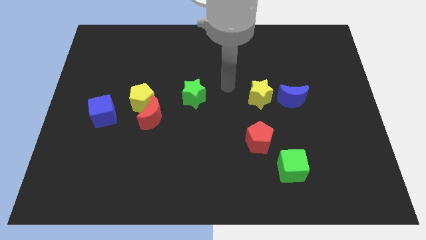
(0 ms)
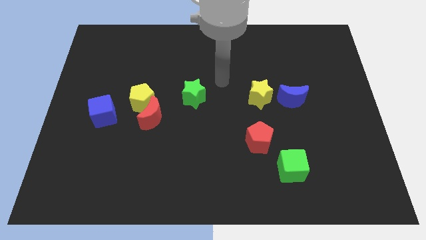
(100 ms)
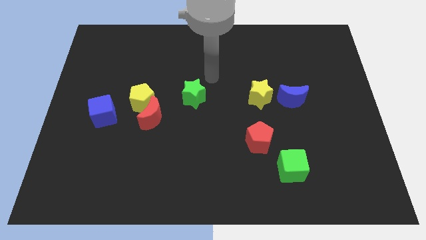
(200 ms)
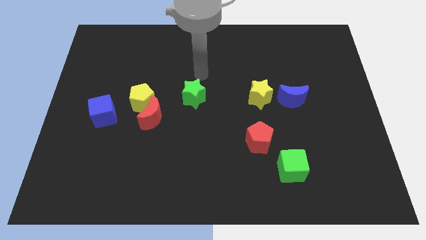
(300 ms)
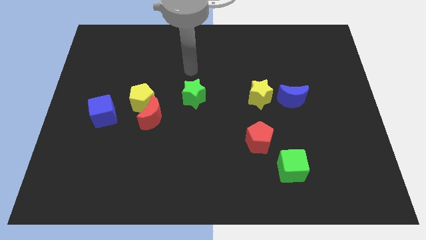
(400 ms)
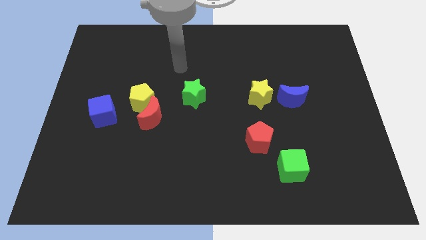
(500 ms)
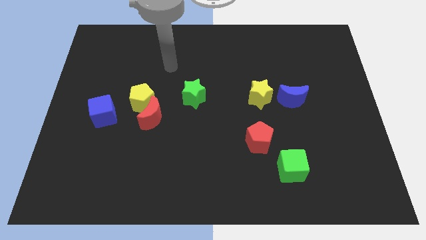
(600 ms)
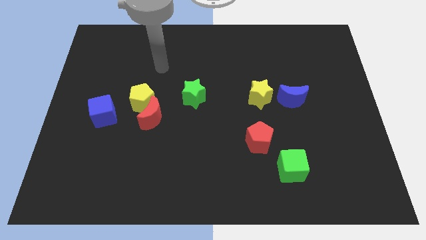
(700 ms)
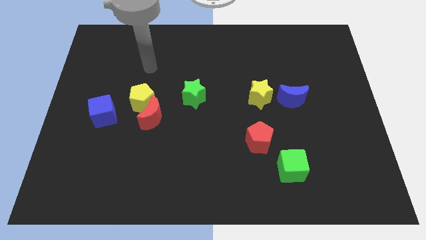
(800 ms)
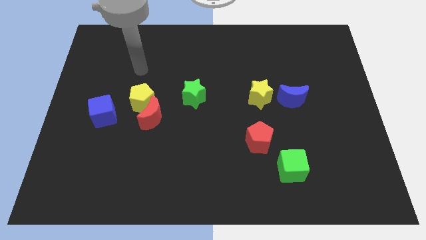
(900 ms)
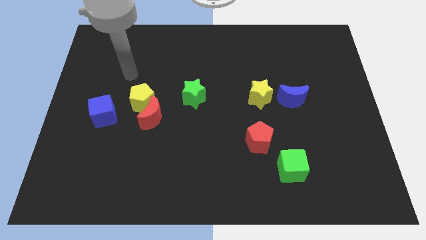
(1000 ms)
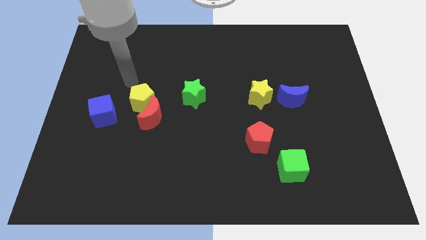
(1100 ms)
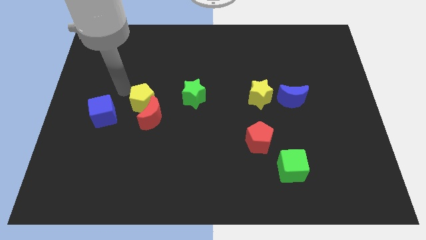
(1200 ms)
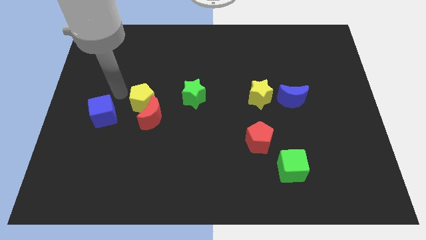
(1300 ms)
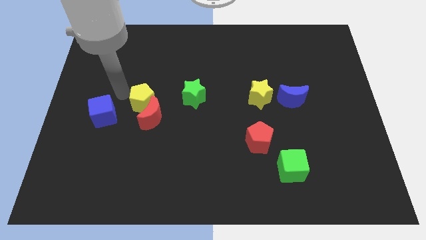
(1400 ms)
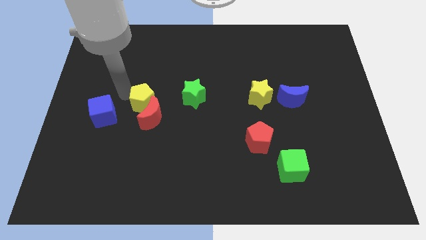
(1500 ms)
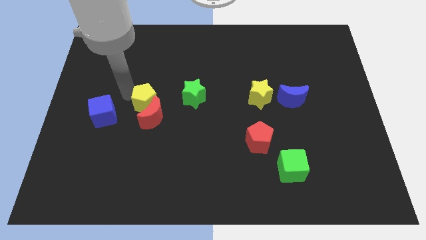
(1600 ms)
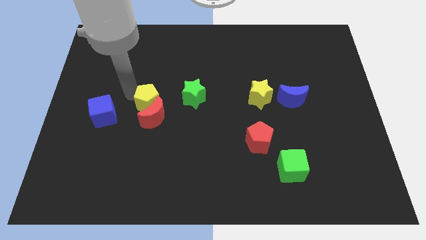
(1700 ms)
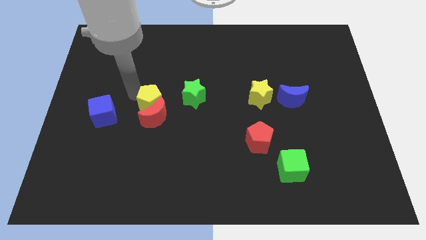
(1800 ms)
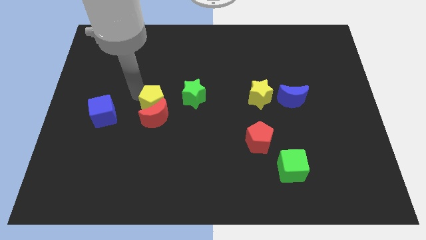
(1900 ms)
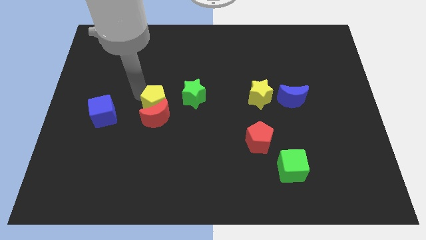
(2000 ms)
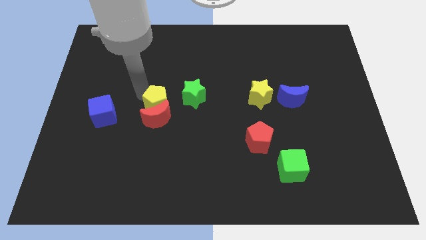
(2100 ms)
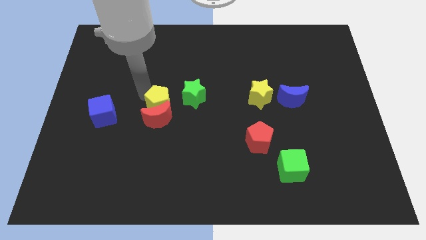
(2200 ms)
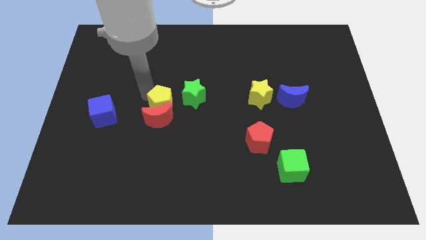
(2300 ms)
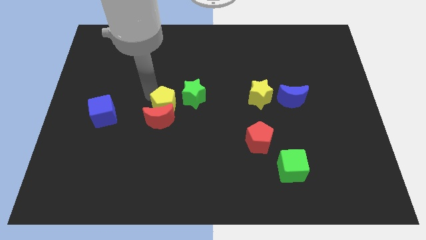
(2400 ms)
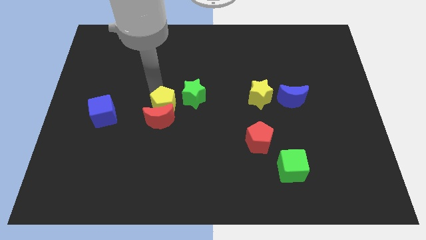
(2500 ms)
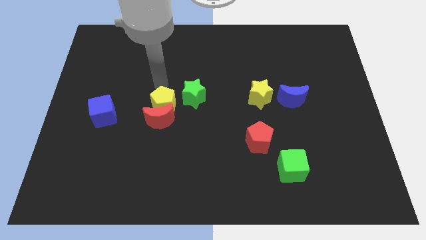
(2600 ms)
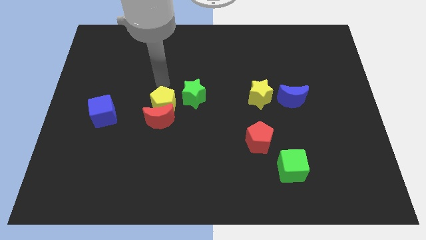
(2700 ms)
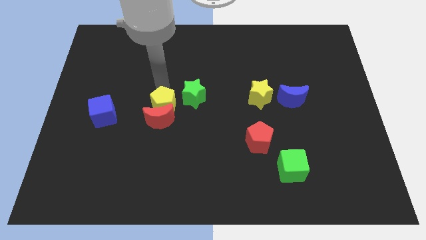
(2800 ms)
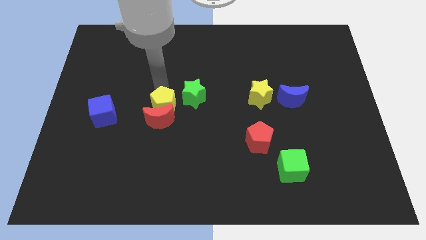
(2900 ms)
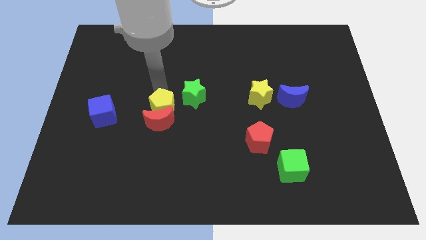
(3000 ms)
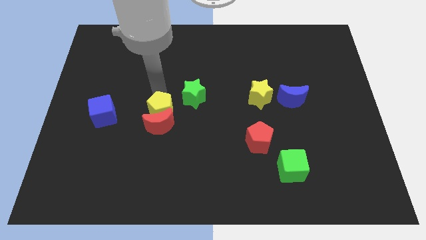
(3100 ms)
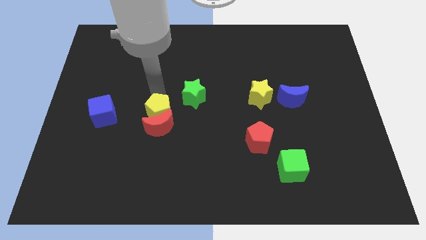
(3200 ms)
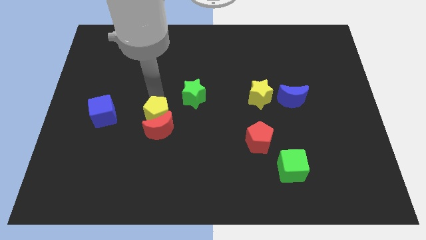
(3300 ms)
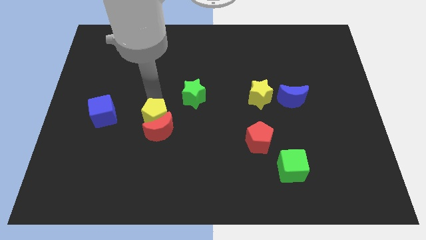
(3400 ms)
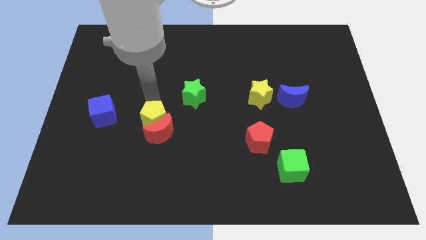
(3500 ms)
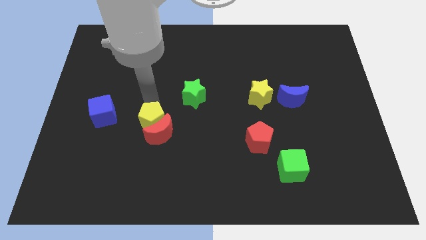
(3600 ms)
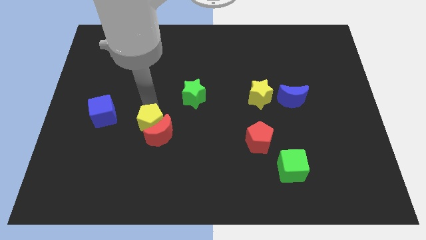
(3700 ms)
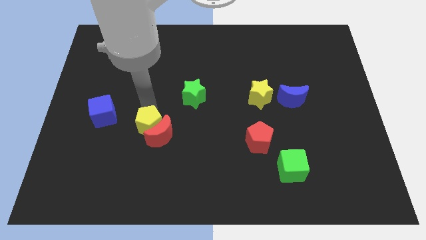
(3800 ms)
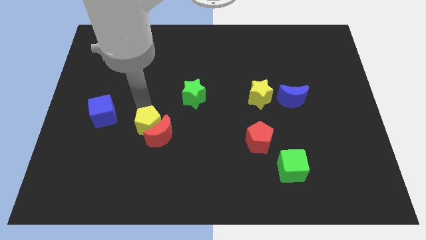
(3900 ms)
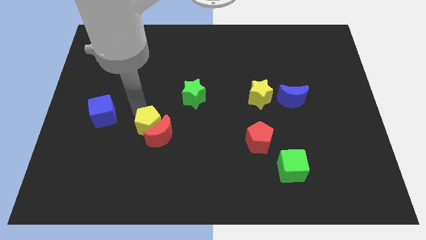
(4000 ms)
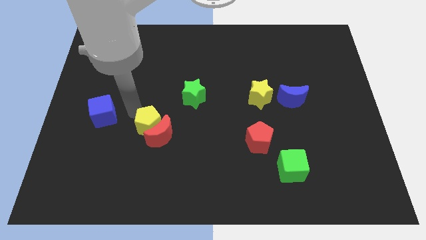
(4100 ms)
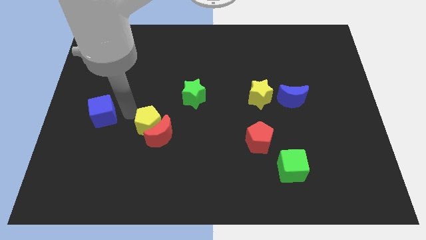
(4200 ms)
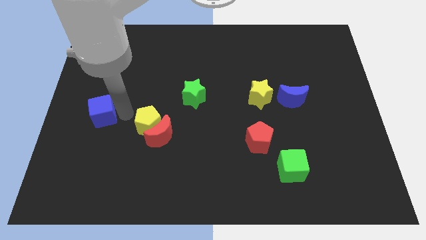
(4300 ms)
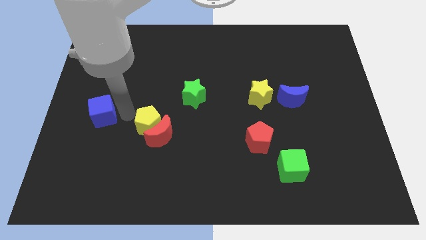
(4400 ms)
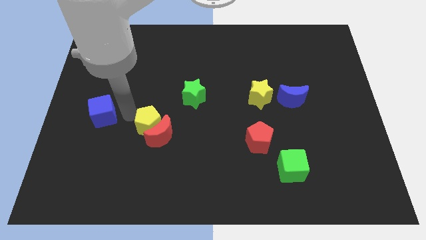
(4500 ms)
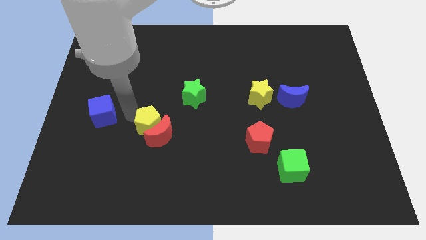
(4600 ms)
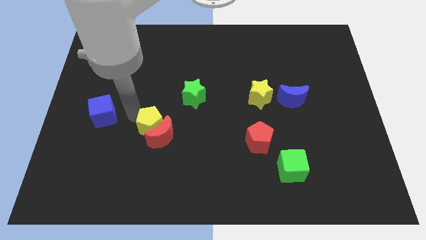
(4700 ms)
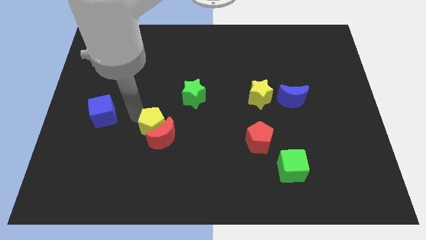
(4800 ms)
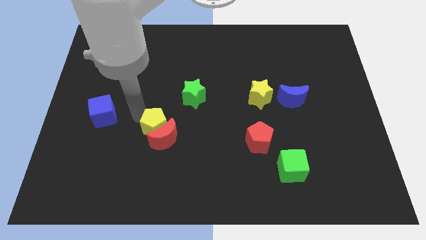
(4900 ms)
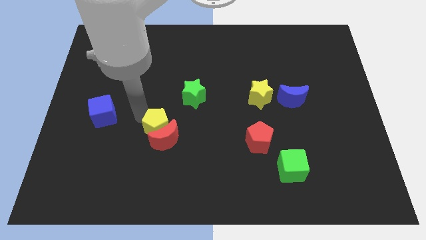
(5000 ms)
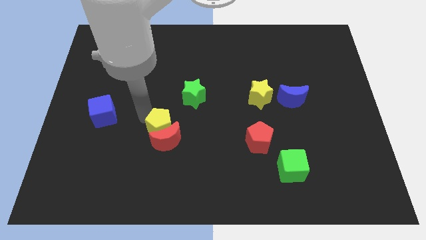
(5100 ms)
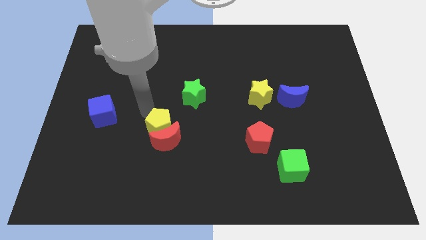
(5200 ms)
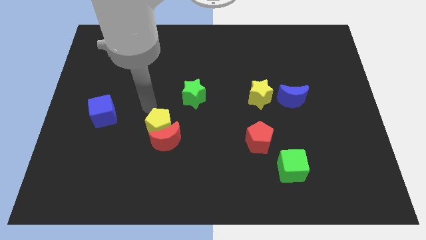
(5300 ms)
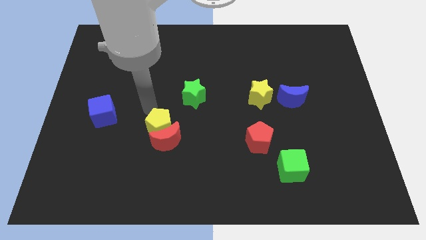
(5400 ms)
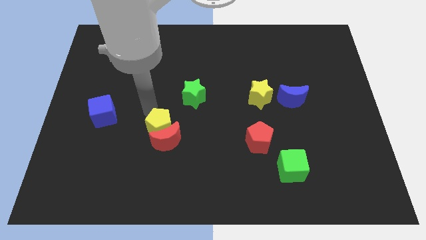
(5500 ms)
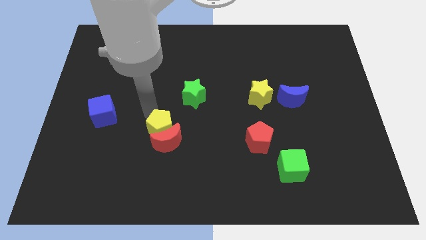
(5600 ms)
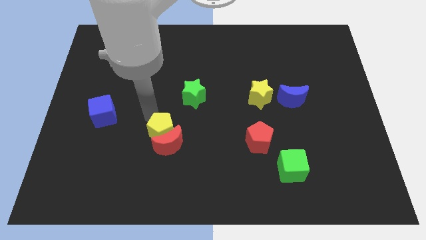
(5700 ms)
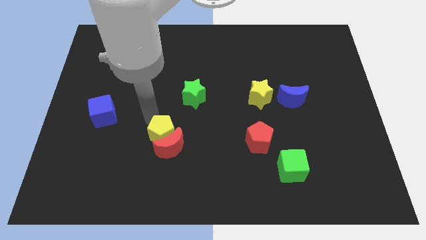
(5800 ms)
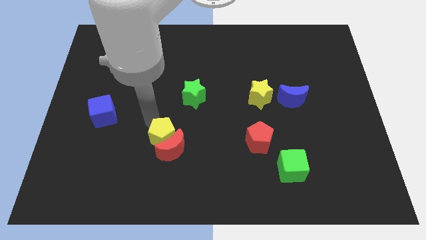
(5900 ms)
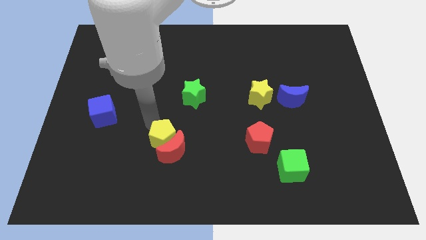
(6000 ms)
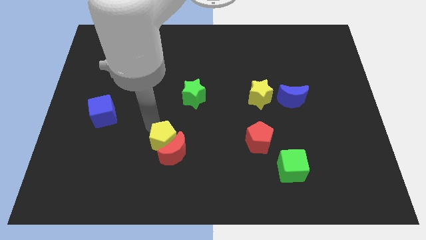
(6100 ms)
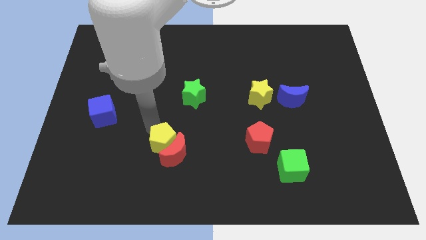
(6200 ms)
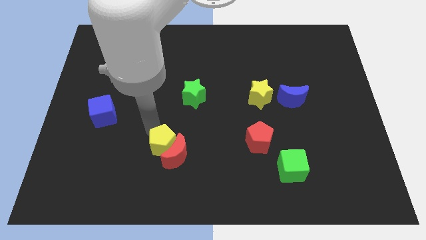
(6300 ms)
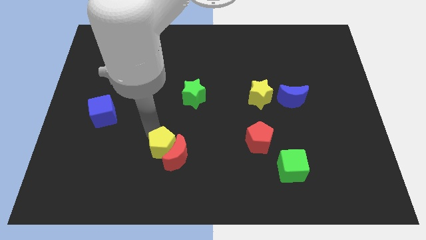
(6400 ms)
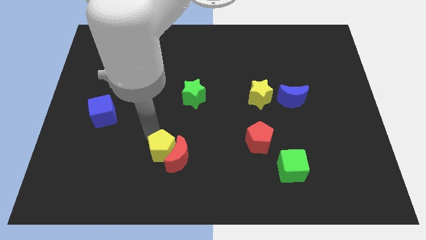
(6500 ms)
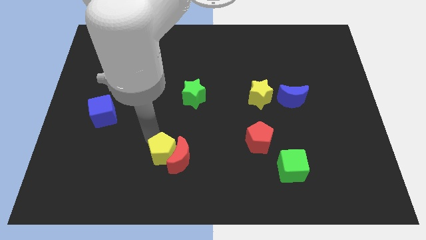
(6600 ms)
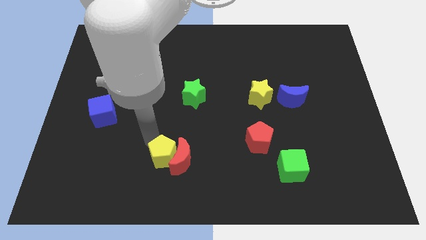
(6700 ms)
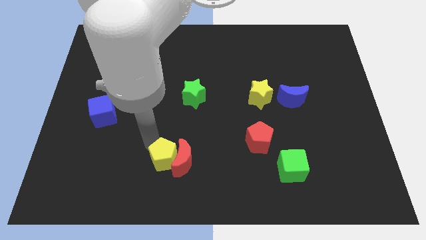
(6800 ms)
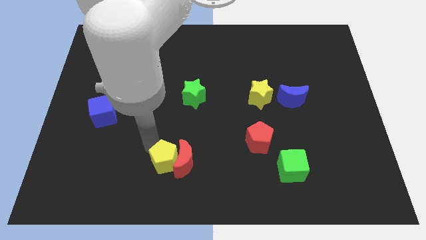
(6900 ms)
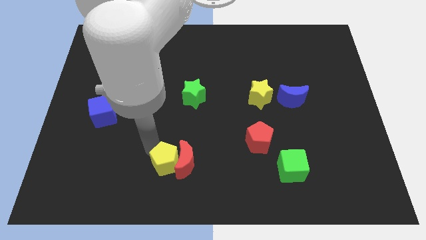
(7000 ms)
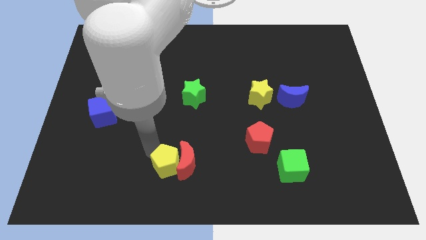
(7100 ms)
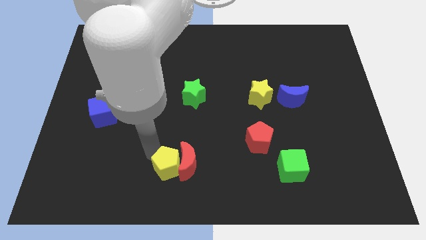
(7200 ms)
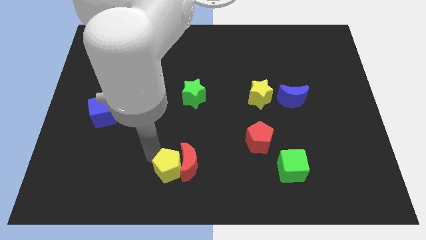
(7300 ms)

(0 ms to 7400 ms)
push the yellow pentagon to the bottom

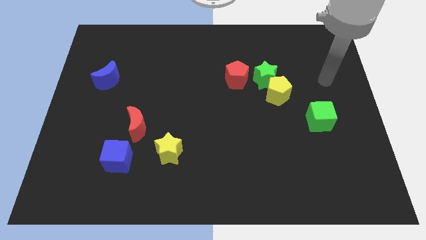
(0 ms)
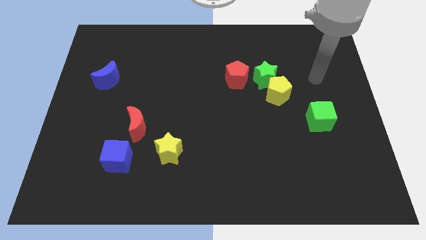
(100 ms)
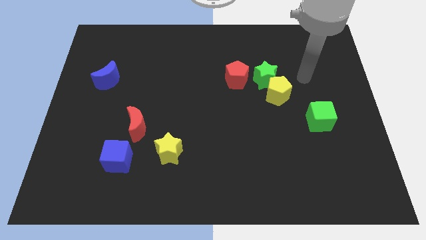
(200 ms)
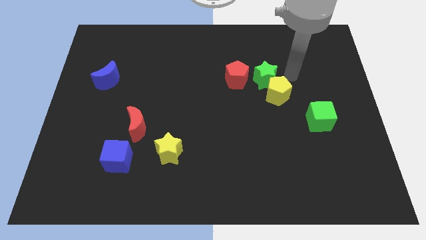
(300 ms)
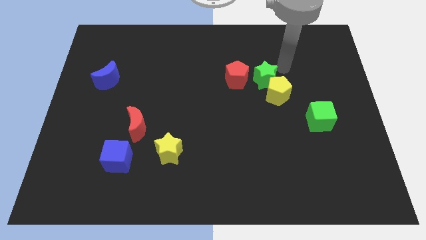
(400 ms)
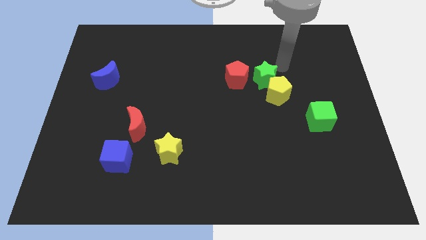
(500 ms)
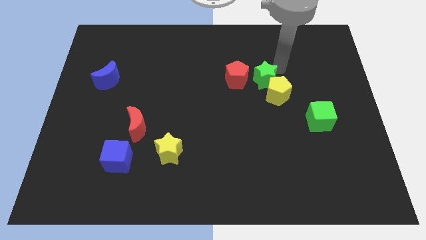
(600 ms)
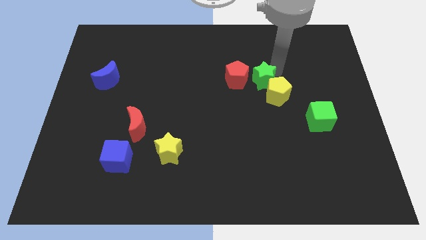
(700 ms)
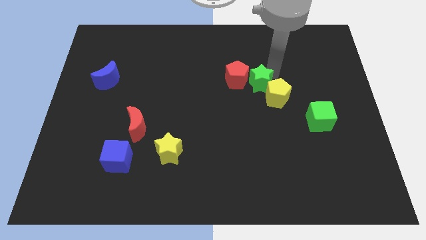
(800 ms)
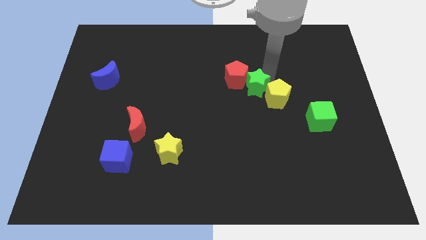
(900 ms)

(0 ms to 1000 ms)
move the green star to the middle
